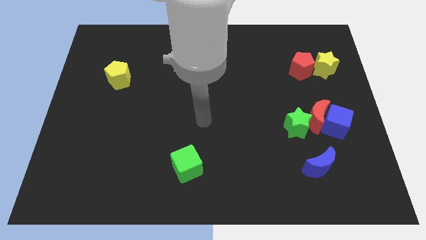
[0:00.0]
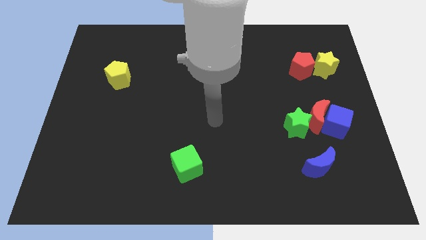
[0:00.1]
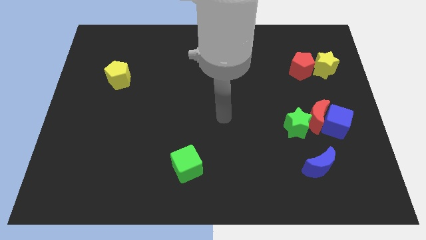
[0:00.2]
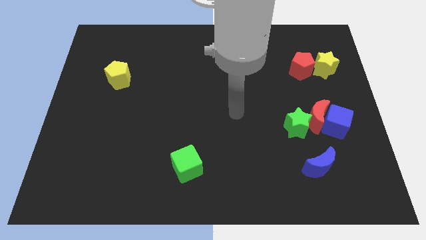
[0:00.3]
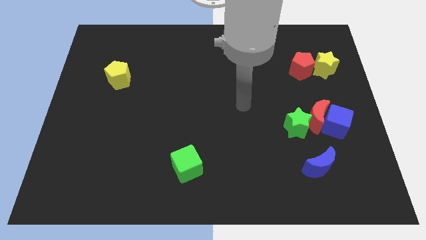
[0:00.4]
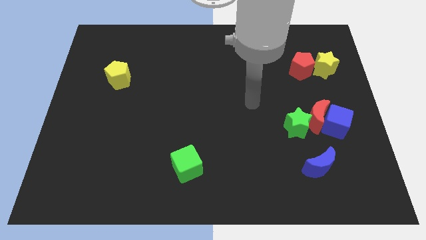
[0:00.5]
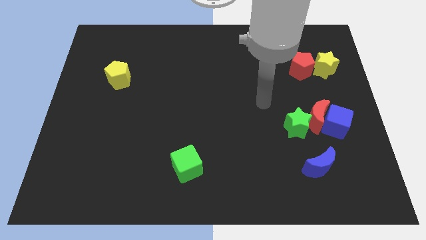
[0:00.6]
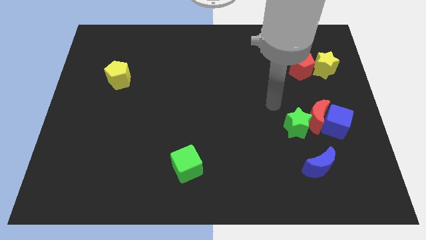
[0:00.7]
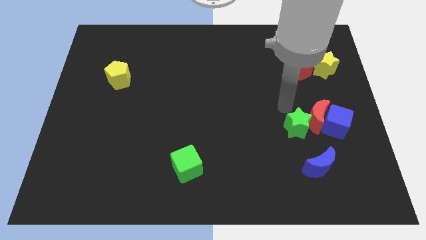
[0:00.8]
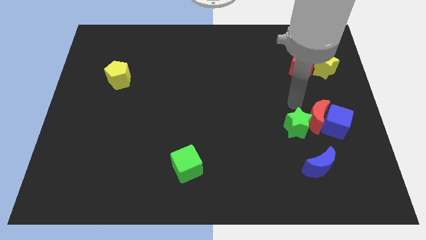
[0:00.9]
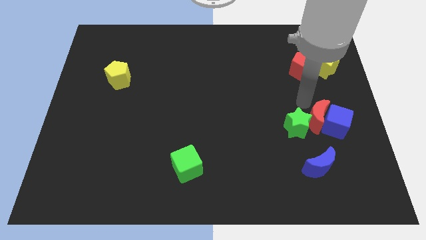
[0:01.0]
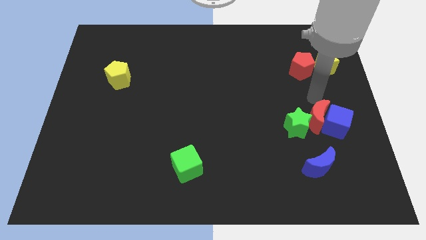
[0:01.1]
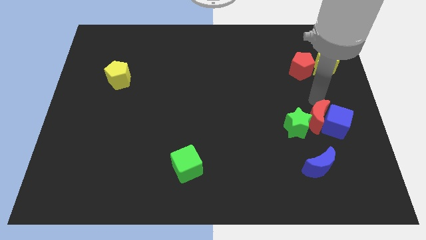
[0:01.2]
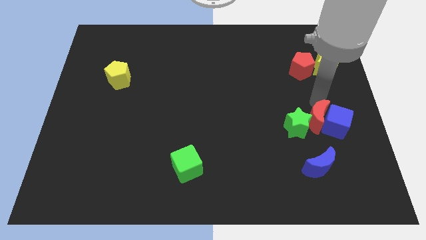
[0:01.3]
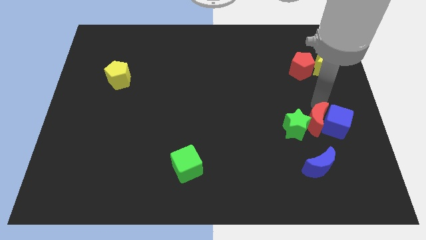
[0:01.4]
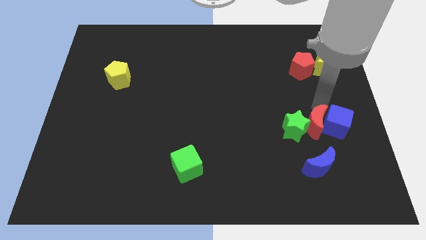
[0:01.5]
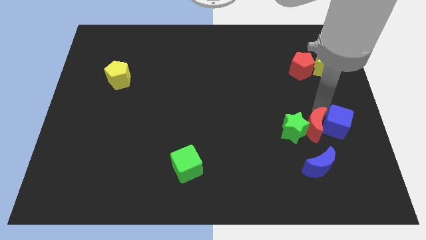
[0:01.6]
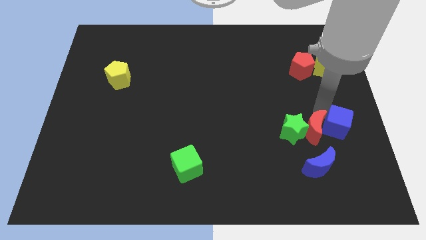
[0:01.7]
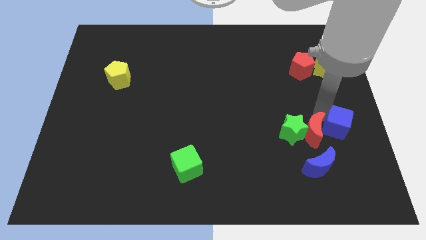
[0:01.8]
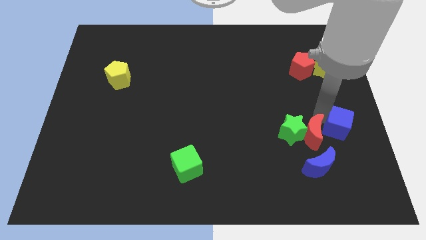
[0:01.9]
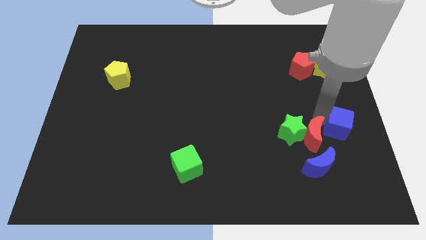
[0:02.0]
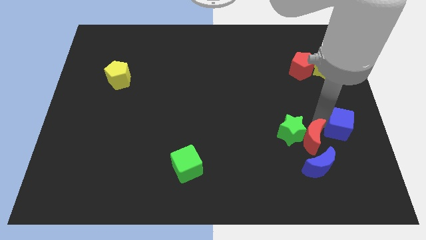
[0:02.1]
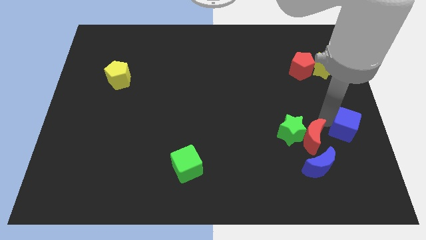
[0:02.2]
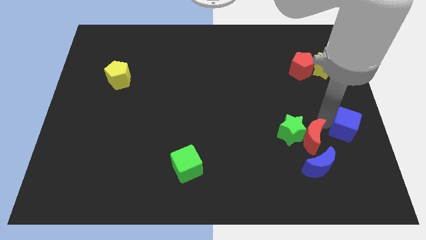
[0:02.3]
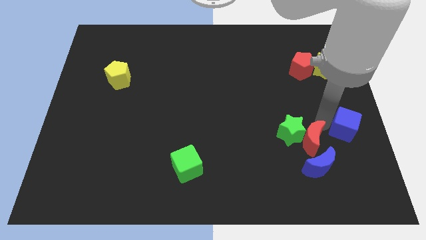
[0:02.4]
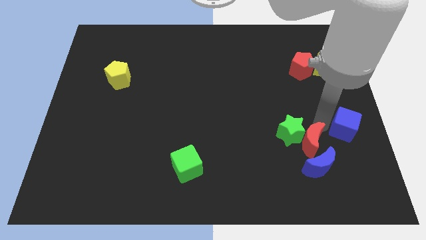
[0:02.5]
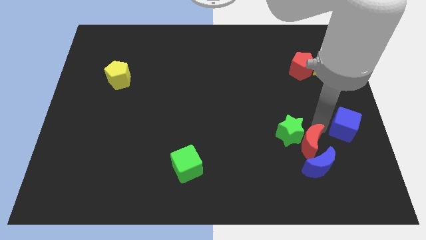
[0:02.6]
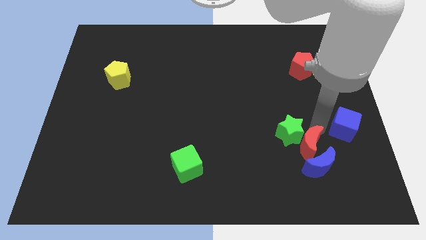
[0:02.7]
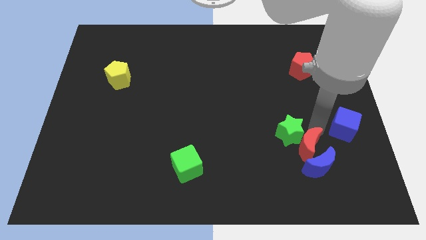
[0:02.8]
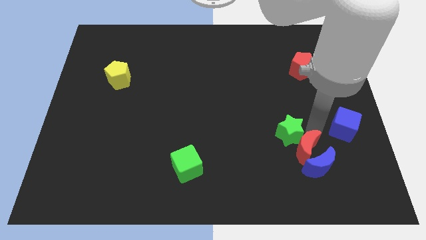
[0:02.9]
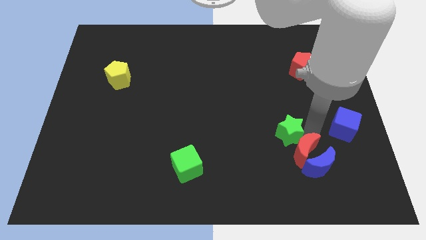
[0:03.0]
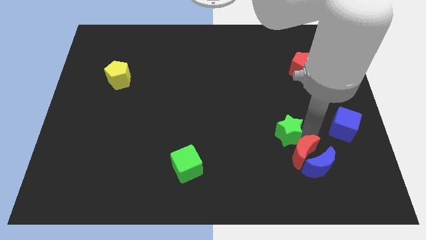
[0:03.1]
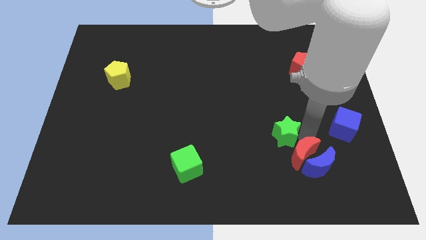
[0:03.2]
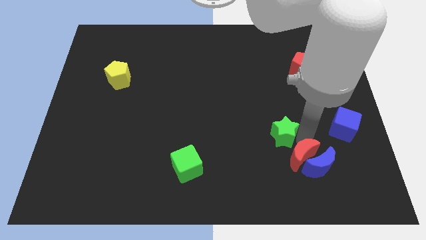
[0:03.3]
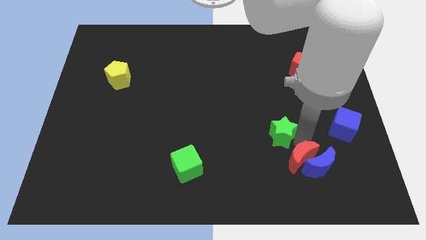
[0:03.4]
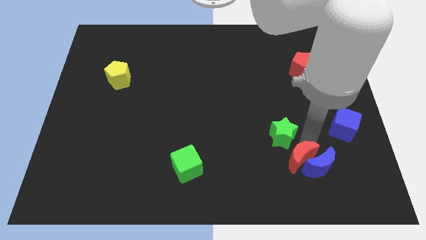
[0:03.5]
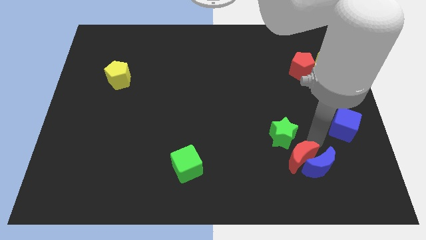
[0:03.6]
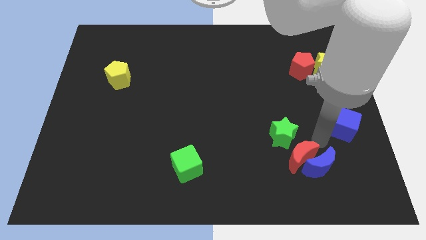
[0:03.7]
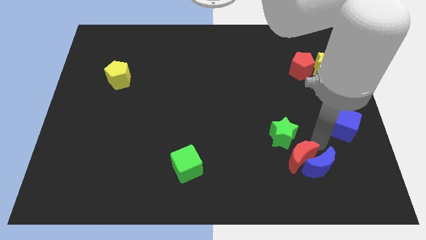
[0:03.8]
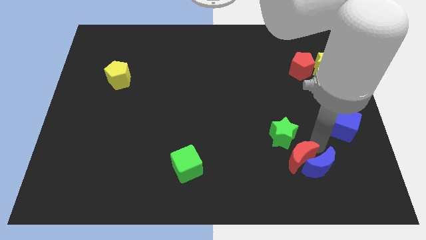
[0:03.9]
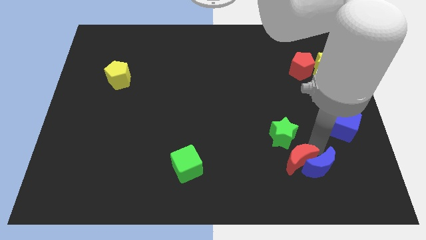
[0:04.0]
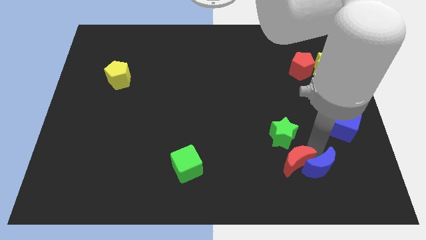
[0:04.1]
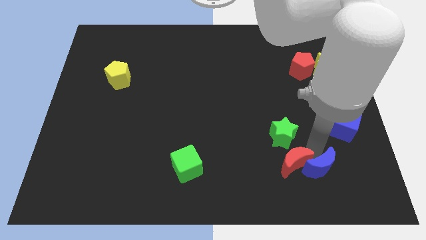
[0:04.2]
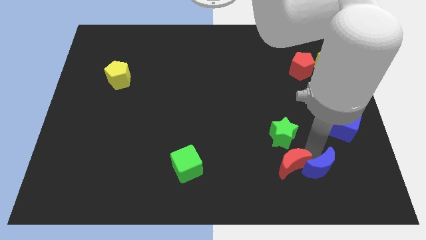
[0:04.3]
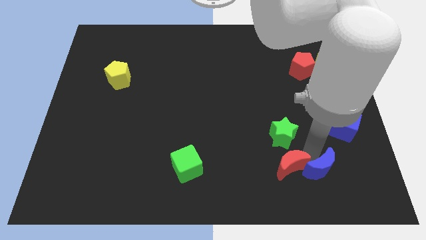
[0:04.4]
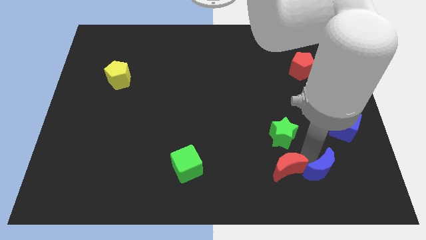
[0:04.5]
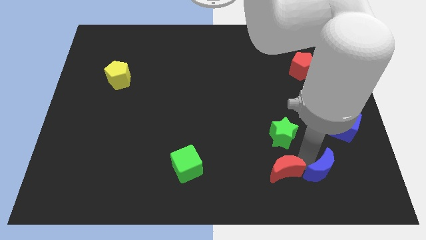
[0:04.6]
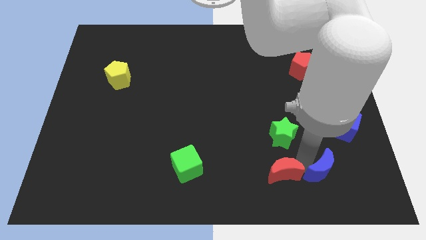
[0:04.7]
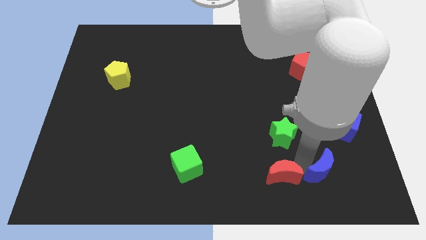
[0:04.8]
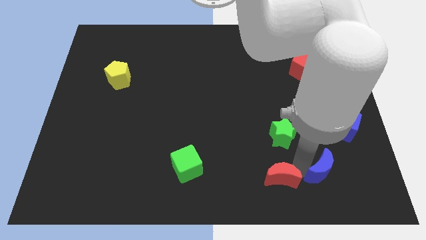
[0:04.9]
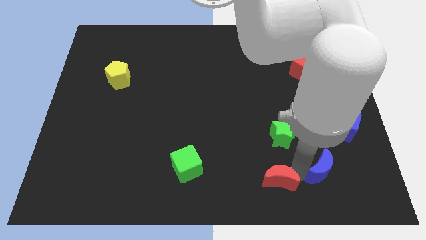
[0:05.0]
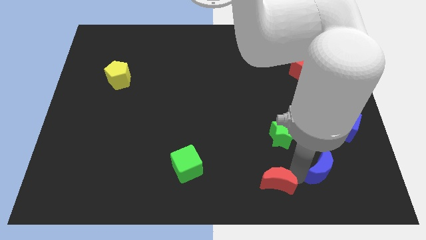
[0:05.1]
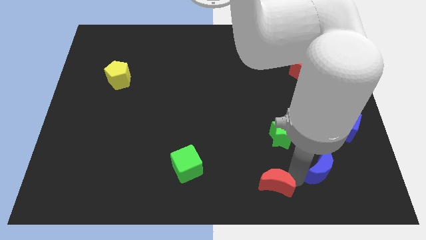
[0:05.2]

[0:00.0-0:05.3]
move the red moon to the bottom

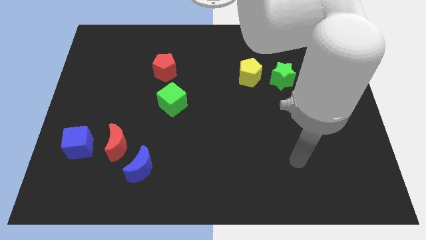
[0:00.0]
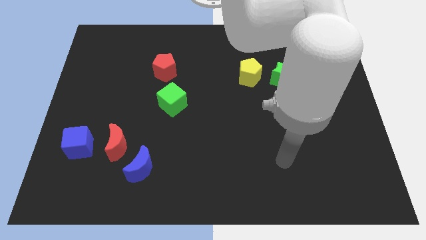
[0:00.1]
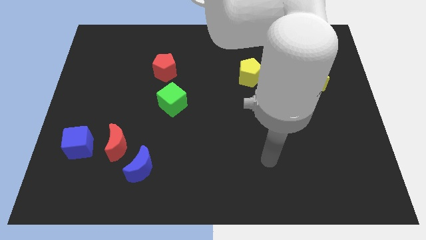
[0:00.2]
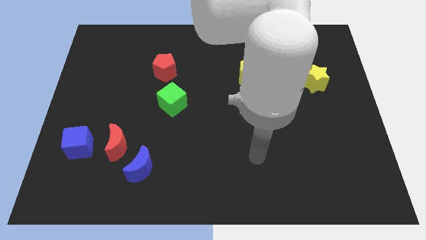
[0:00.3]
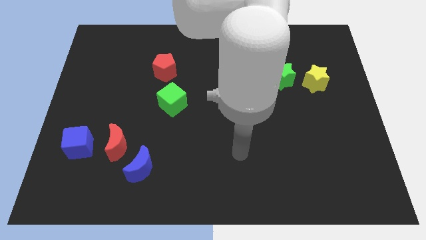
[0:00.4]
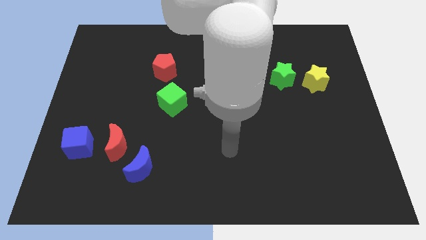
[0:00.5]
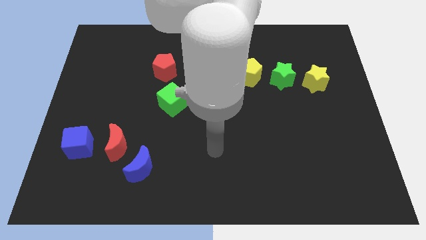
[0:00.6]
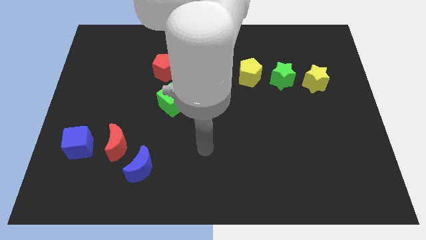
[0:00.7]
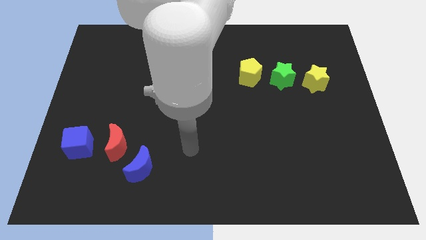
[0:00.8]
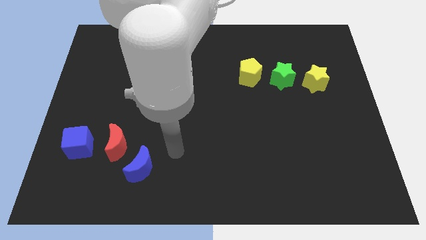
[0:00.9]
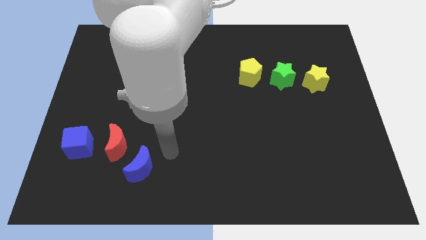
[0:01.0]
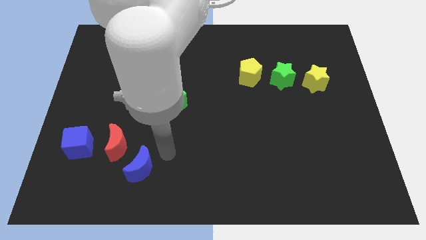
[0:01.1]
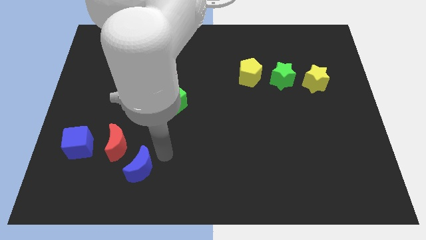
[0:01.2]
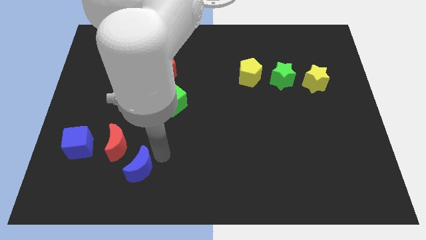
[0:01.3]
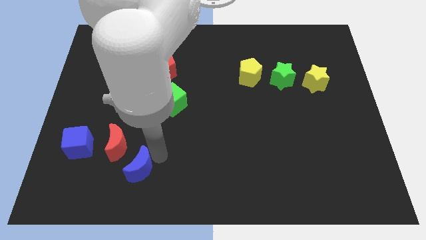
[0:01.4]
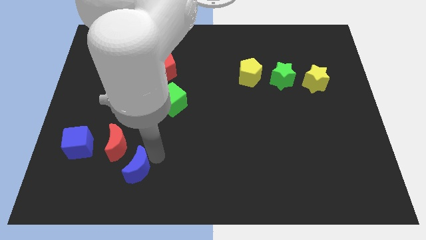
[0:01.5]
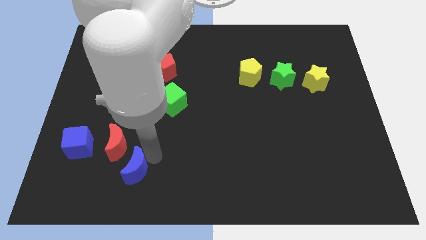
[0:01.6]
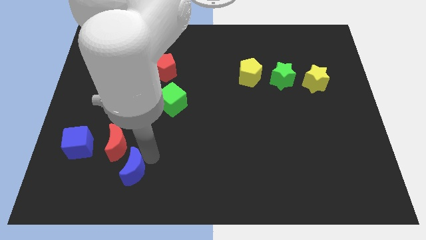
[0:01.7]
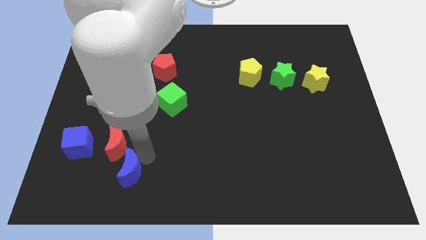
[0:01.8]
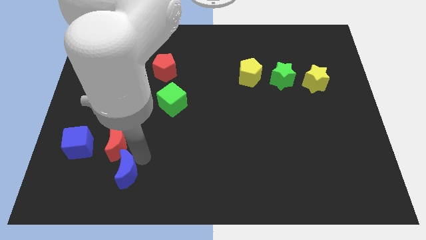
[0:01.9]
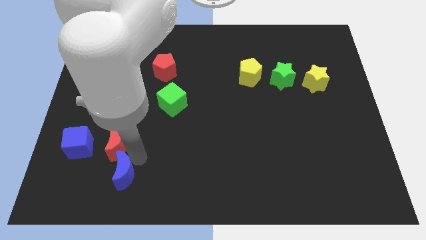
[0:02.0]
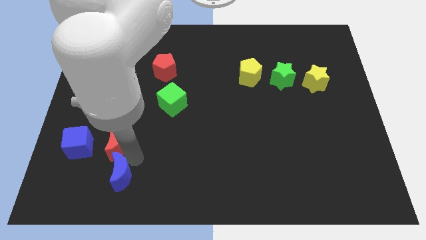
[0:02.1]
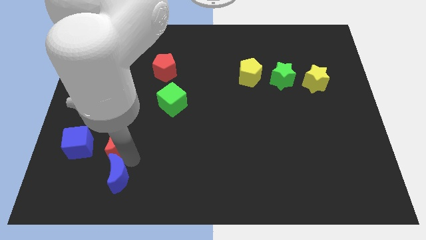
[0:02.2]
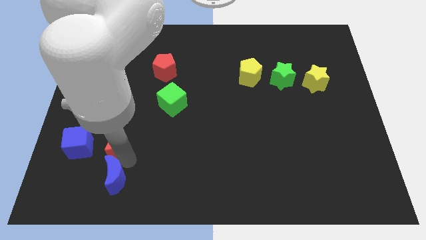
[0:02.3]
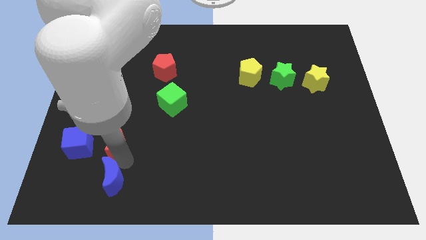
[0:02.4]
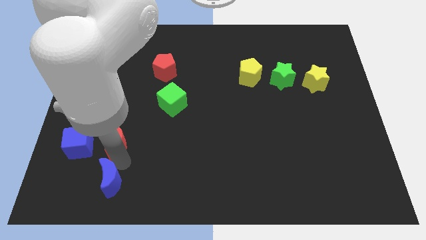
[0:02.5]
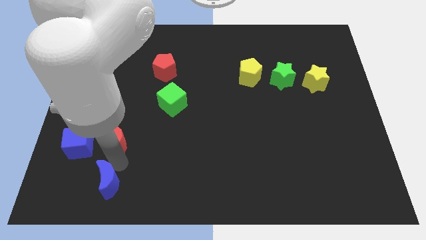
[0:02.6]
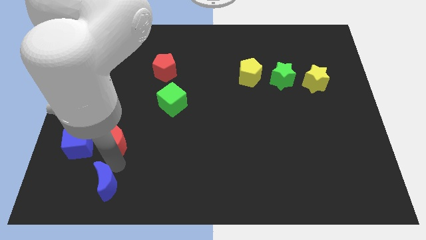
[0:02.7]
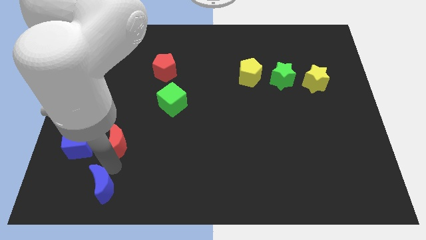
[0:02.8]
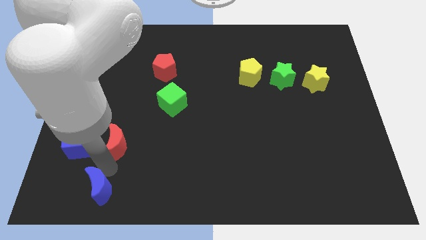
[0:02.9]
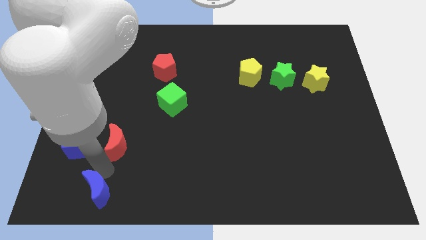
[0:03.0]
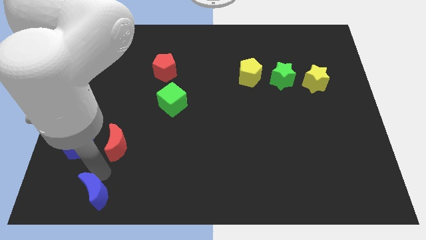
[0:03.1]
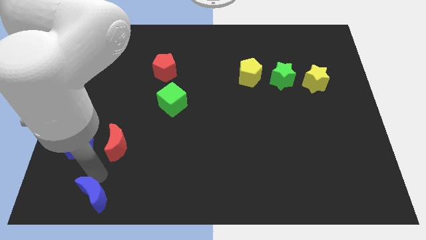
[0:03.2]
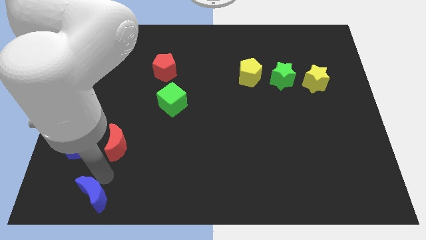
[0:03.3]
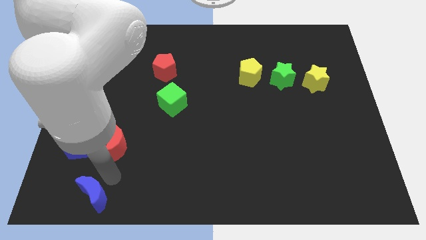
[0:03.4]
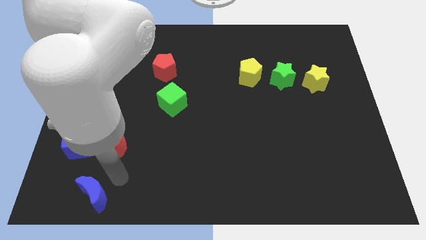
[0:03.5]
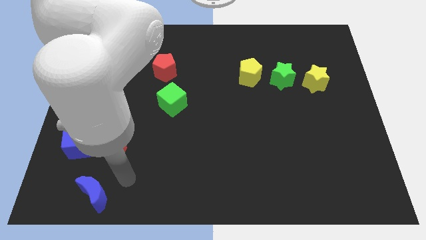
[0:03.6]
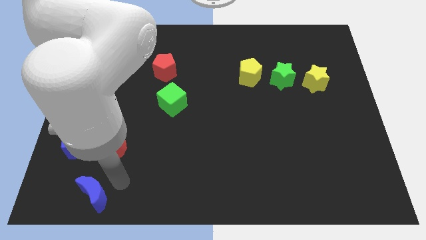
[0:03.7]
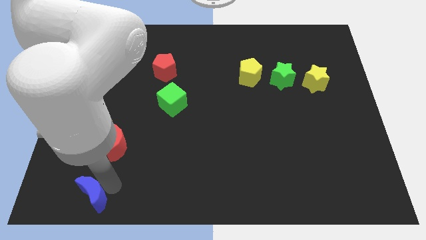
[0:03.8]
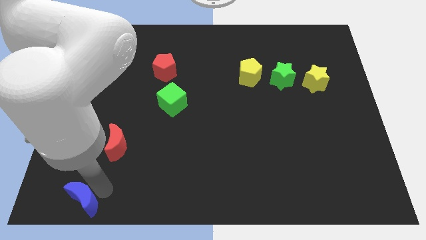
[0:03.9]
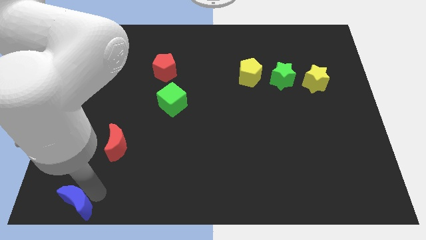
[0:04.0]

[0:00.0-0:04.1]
put the blue moon to the bottom left corner
